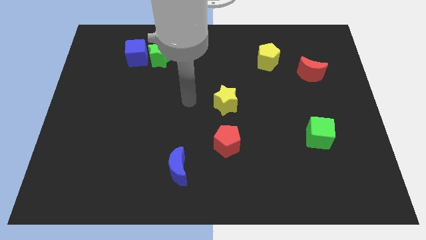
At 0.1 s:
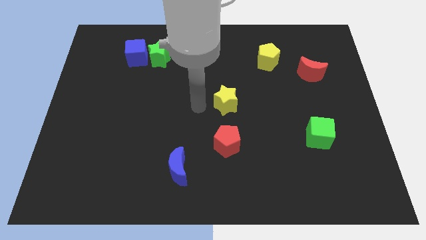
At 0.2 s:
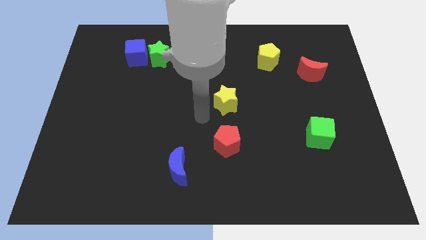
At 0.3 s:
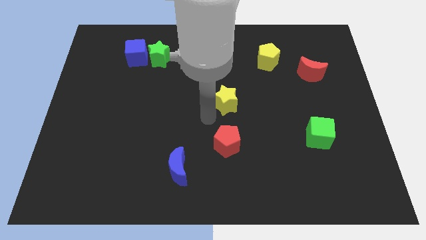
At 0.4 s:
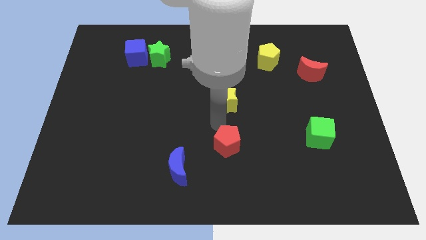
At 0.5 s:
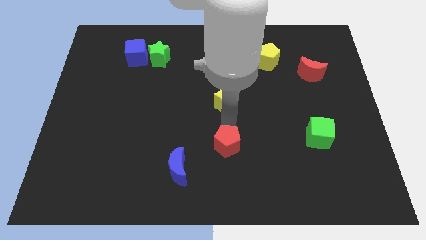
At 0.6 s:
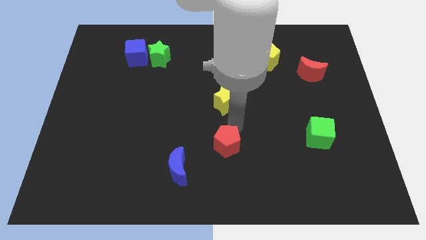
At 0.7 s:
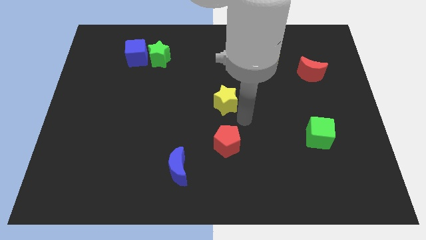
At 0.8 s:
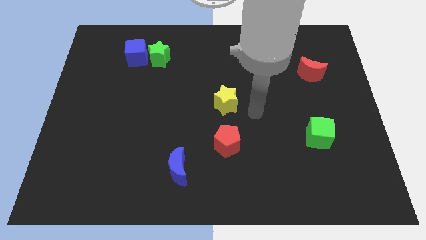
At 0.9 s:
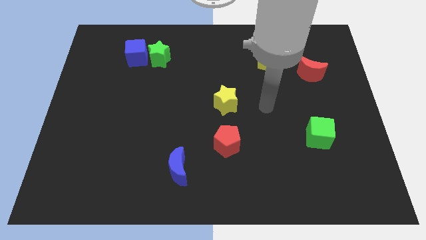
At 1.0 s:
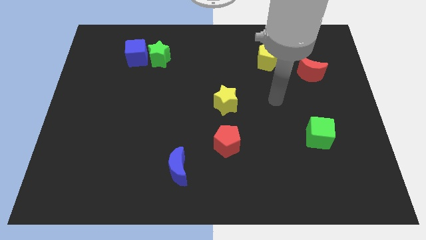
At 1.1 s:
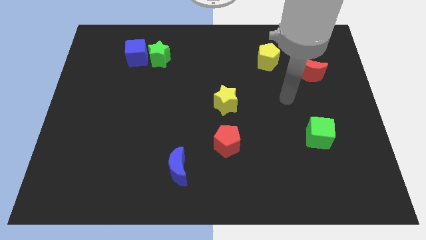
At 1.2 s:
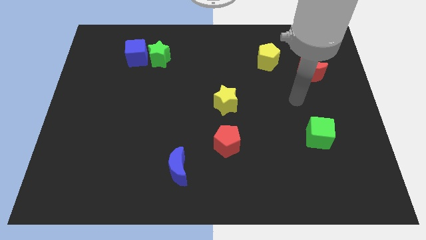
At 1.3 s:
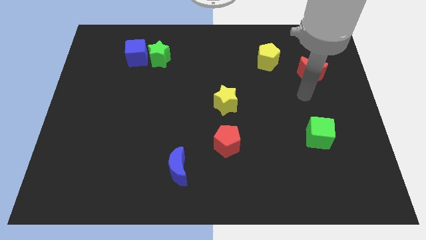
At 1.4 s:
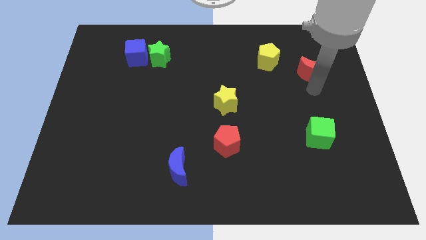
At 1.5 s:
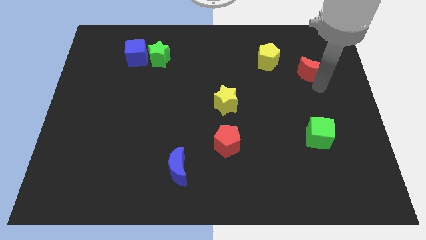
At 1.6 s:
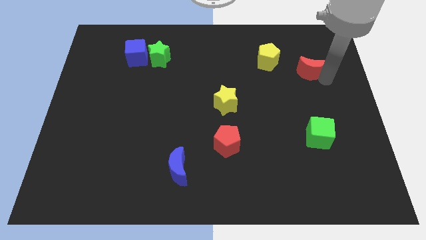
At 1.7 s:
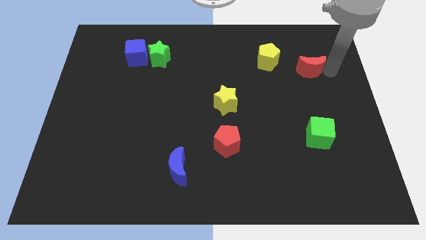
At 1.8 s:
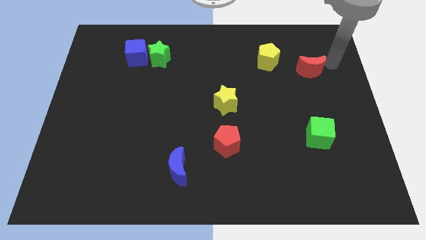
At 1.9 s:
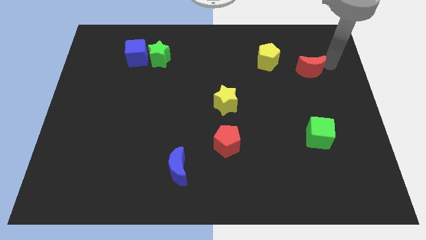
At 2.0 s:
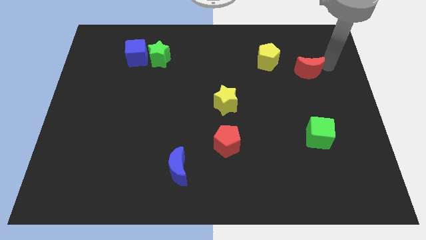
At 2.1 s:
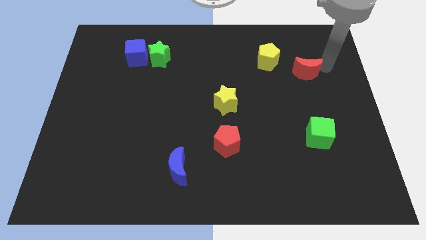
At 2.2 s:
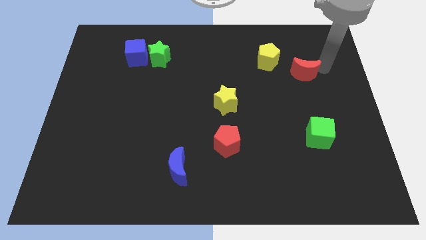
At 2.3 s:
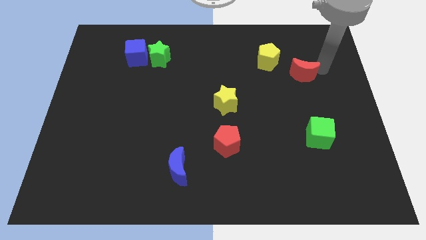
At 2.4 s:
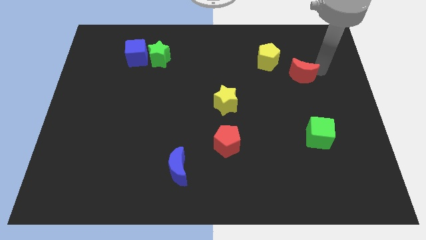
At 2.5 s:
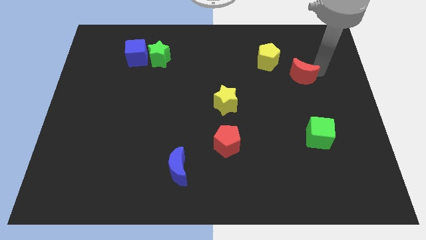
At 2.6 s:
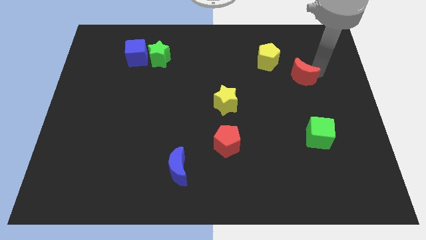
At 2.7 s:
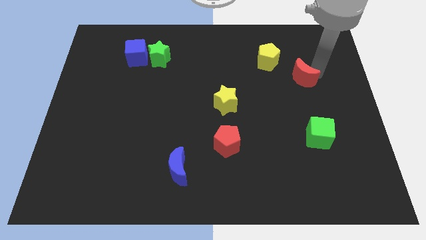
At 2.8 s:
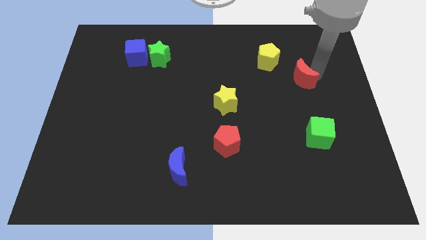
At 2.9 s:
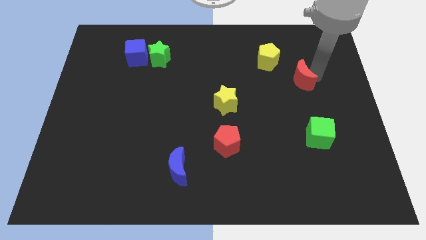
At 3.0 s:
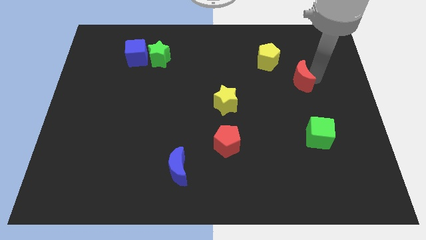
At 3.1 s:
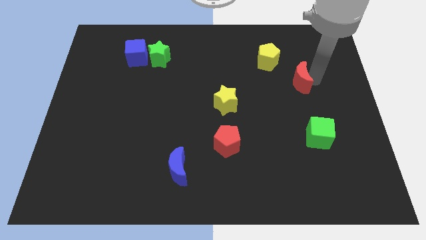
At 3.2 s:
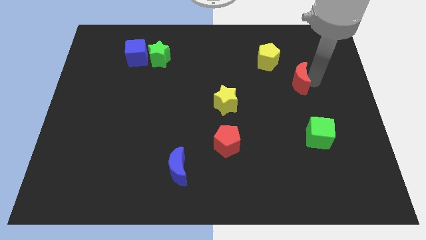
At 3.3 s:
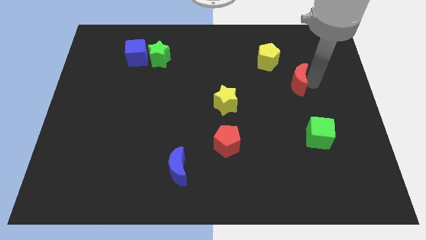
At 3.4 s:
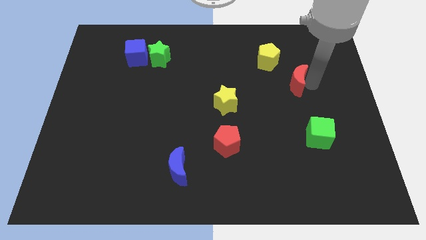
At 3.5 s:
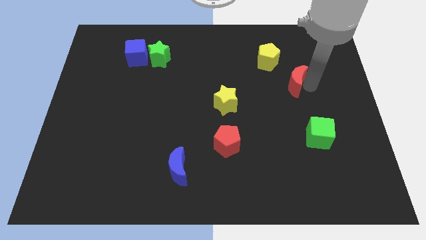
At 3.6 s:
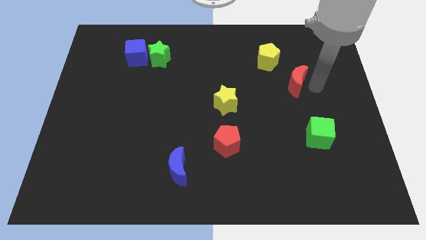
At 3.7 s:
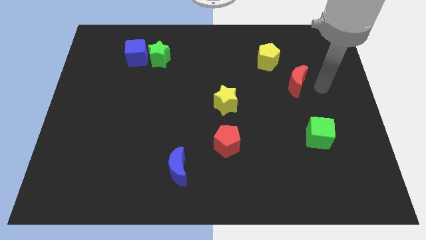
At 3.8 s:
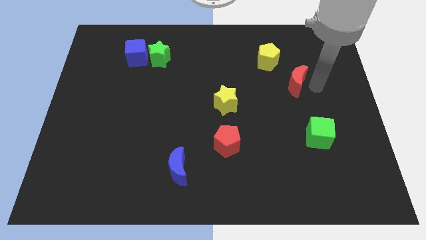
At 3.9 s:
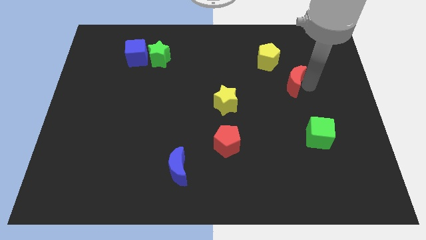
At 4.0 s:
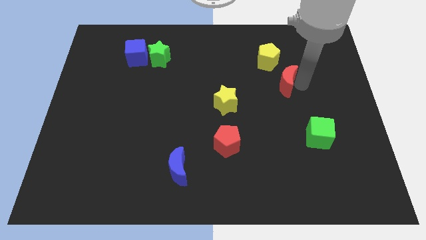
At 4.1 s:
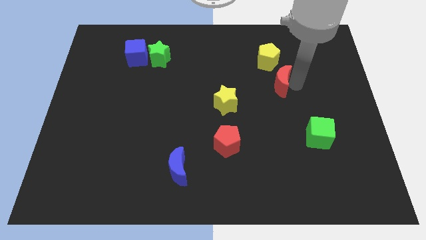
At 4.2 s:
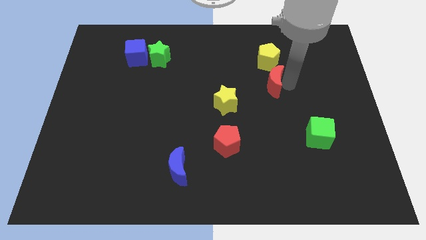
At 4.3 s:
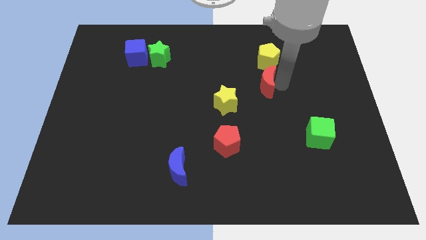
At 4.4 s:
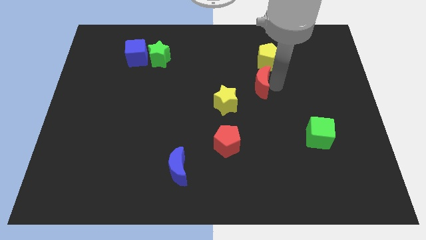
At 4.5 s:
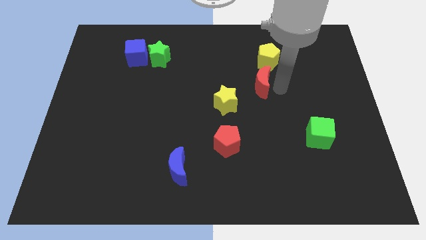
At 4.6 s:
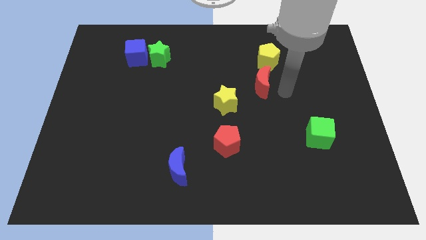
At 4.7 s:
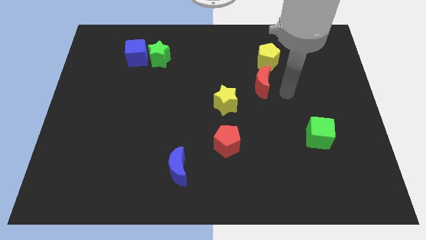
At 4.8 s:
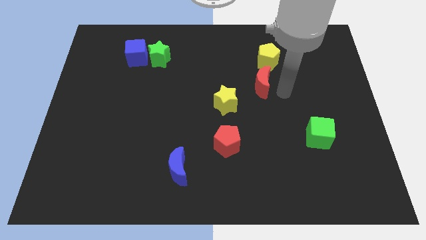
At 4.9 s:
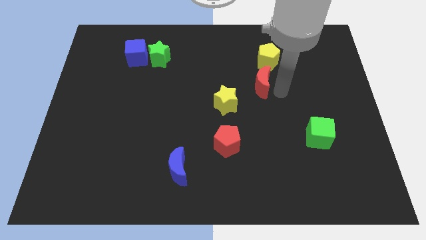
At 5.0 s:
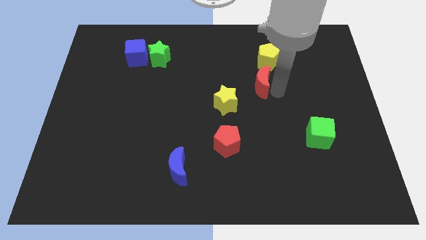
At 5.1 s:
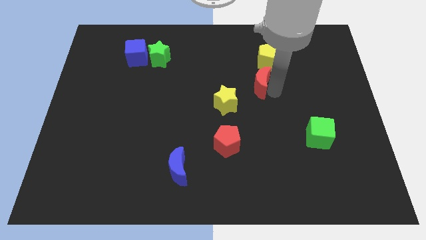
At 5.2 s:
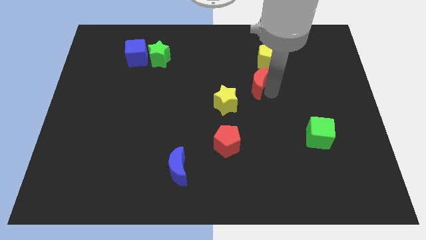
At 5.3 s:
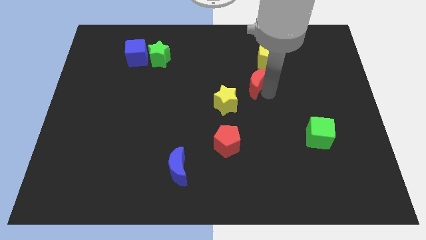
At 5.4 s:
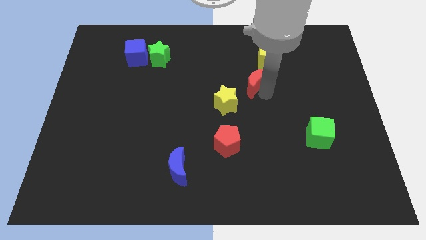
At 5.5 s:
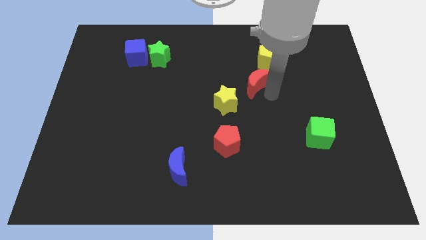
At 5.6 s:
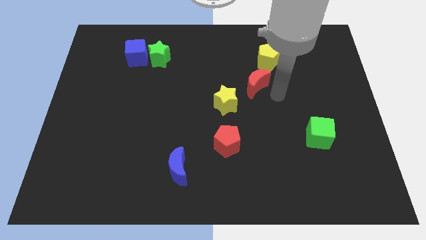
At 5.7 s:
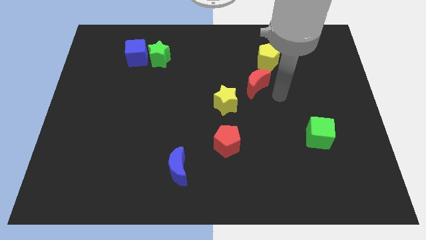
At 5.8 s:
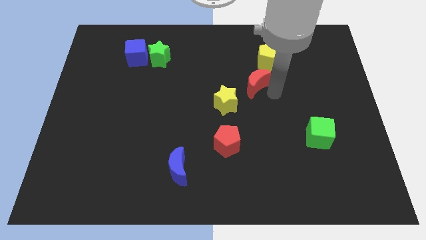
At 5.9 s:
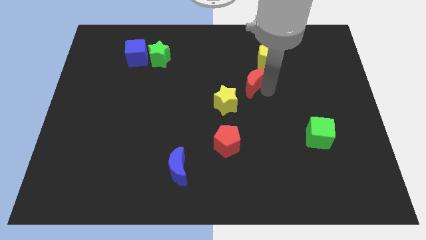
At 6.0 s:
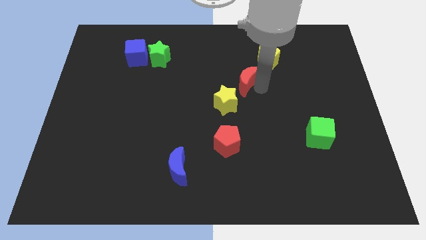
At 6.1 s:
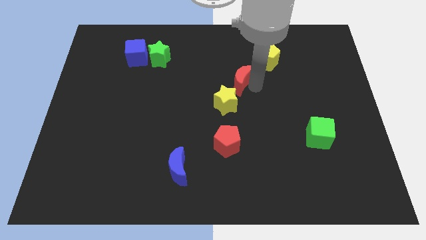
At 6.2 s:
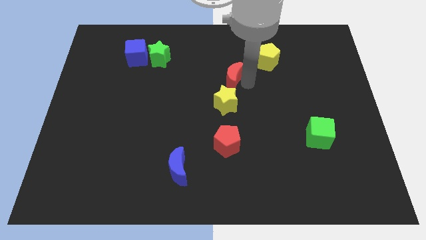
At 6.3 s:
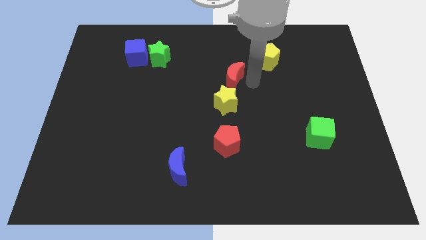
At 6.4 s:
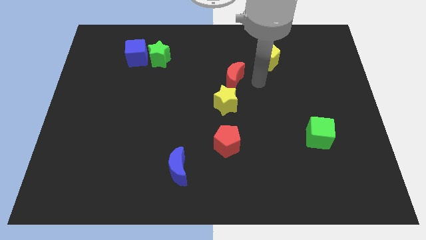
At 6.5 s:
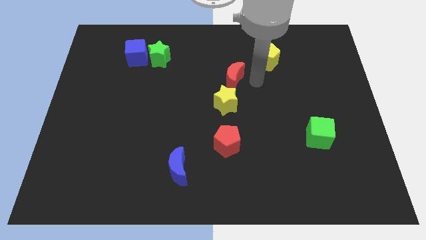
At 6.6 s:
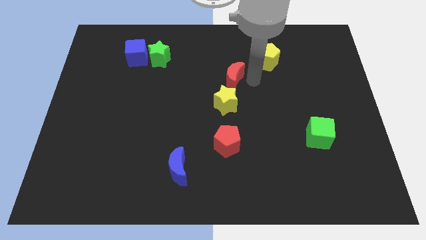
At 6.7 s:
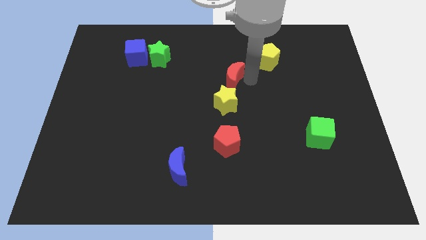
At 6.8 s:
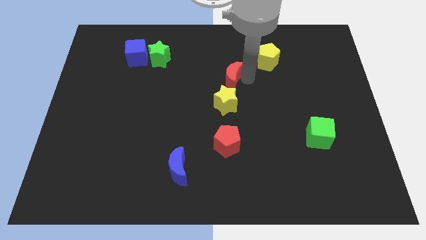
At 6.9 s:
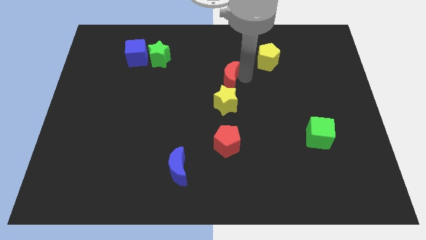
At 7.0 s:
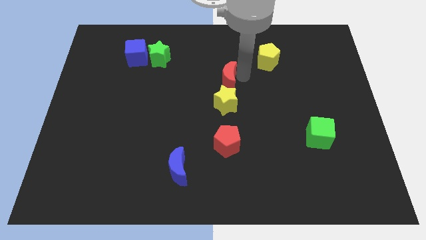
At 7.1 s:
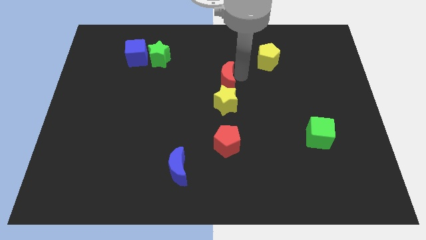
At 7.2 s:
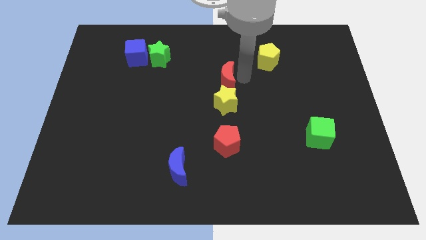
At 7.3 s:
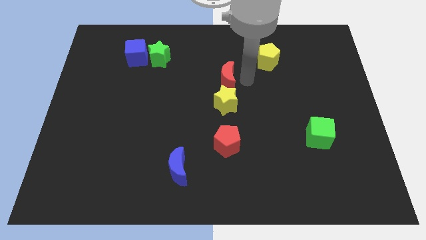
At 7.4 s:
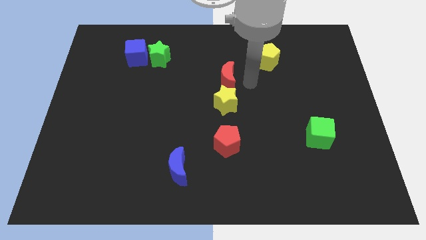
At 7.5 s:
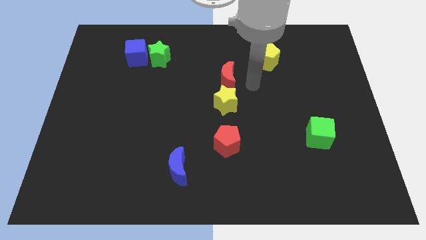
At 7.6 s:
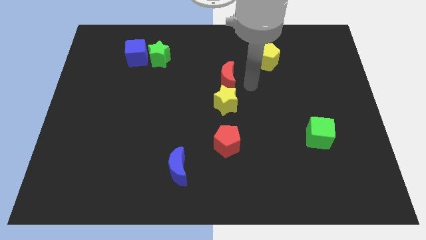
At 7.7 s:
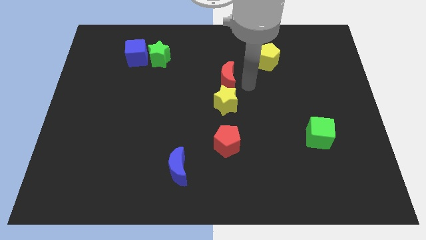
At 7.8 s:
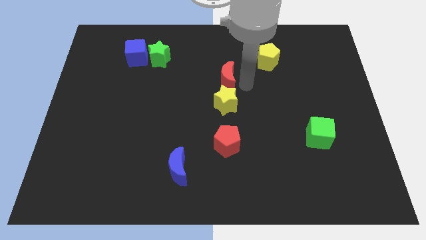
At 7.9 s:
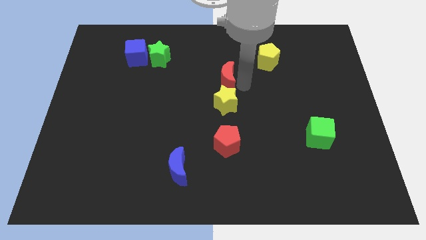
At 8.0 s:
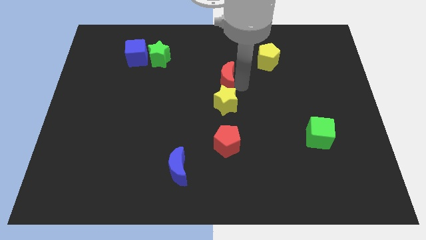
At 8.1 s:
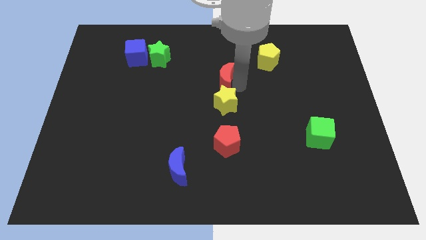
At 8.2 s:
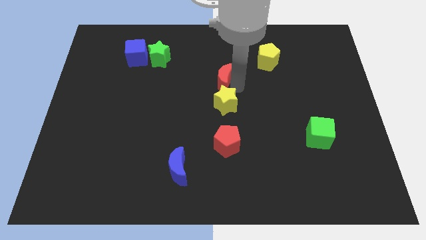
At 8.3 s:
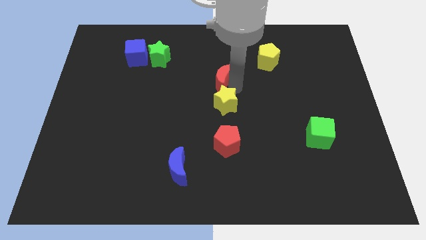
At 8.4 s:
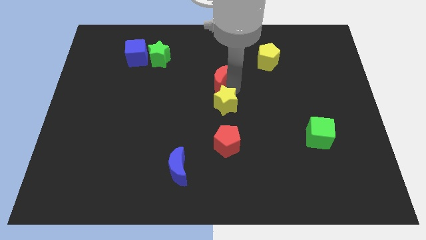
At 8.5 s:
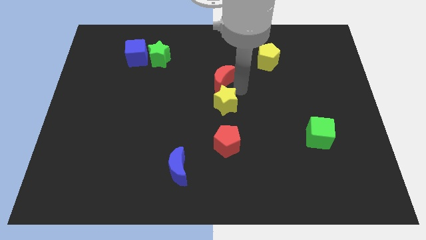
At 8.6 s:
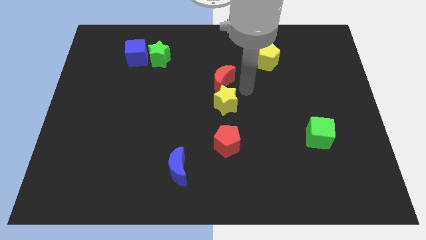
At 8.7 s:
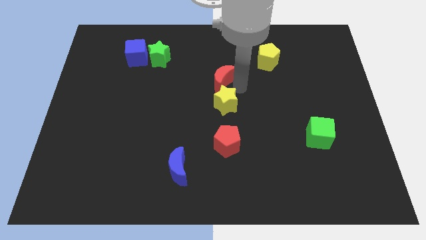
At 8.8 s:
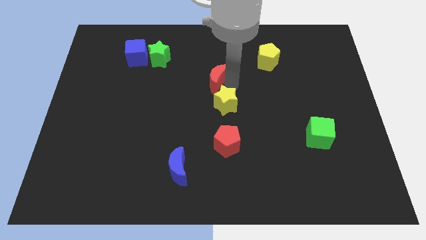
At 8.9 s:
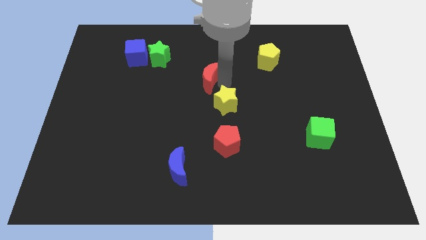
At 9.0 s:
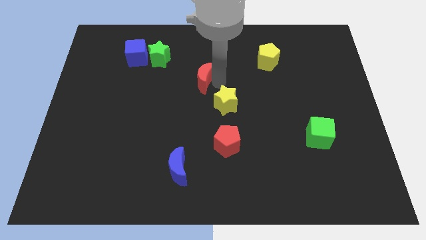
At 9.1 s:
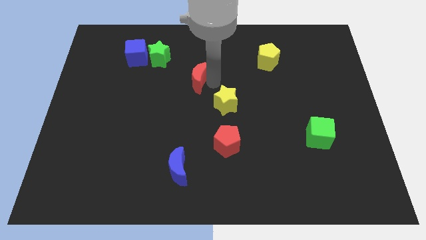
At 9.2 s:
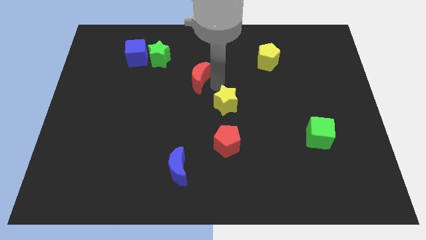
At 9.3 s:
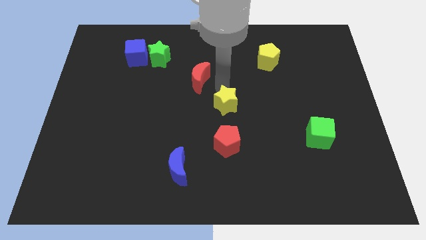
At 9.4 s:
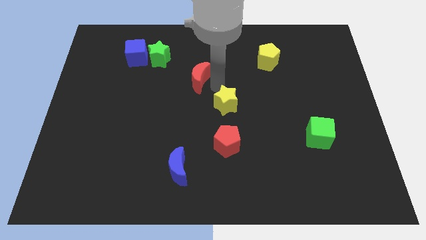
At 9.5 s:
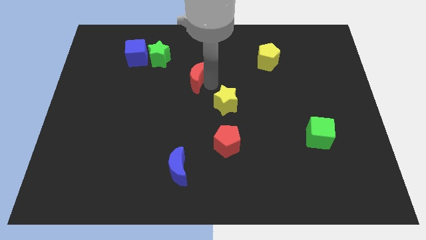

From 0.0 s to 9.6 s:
slide the red moon to the bottom right of the green star
